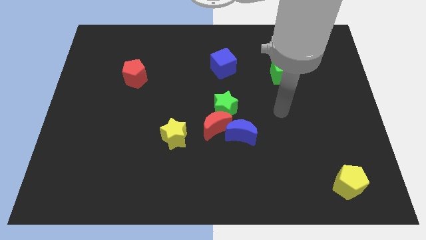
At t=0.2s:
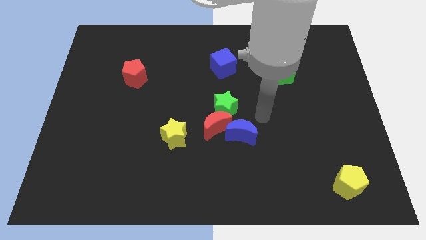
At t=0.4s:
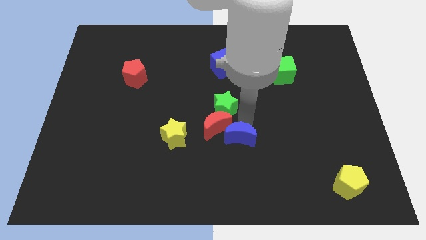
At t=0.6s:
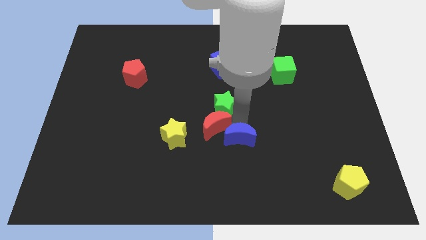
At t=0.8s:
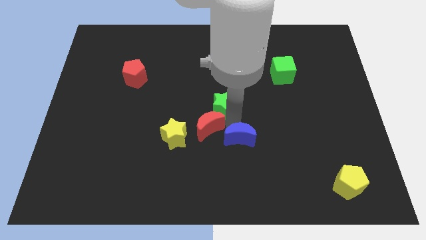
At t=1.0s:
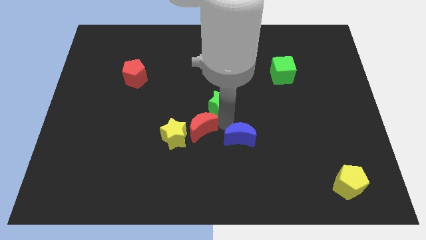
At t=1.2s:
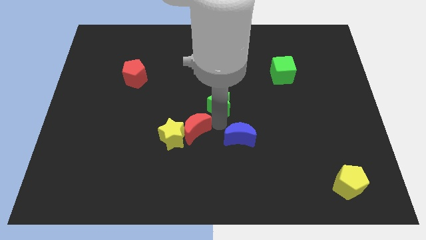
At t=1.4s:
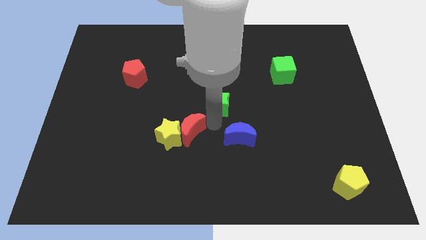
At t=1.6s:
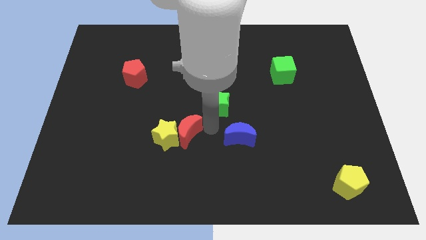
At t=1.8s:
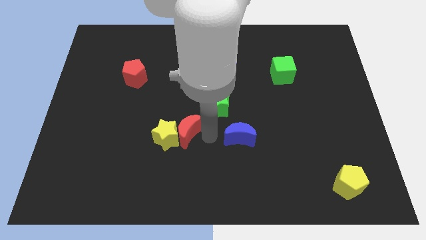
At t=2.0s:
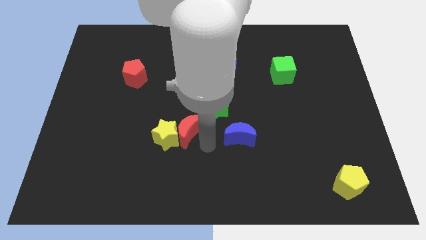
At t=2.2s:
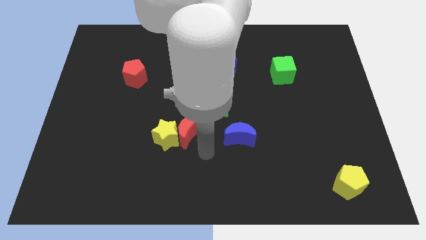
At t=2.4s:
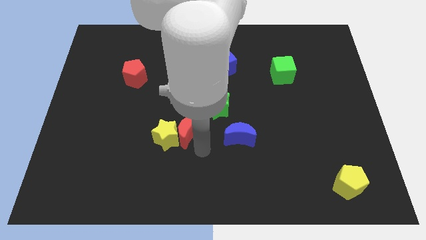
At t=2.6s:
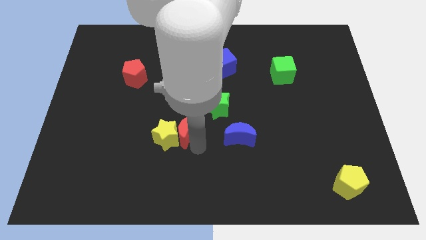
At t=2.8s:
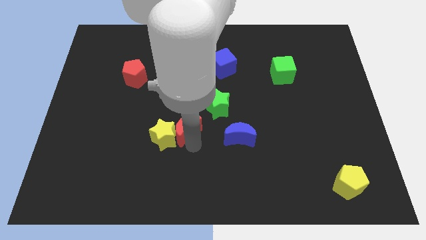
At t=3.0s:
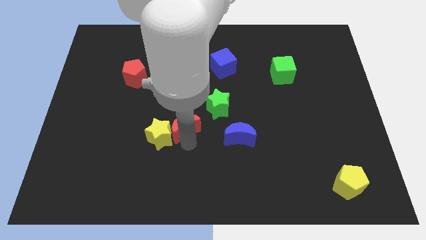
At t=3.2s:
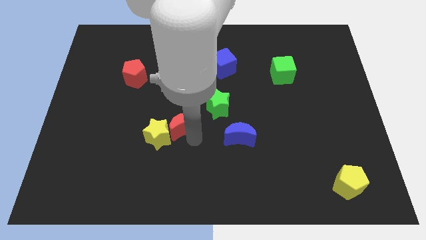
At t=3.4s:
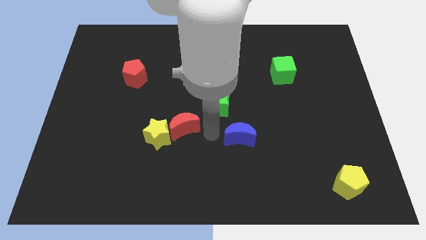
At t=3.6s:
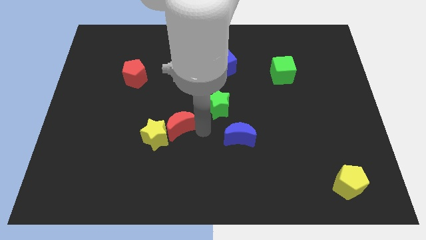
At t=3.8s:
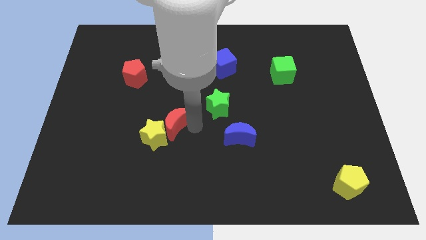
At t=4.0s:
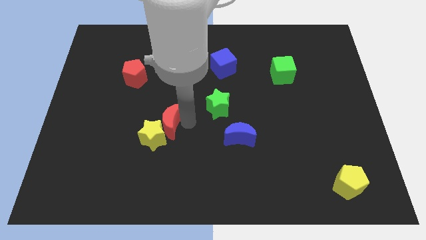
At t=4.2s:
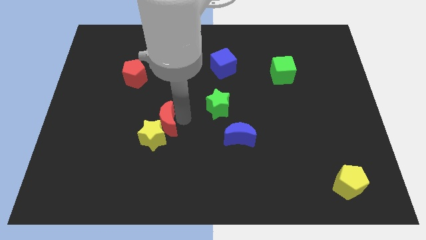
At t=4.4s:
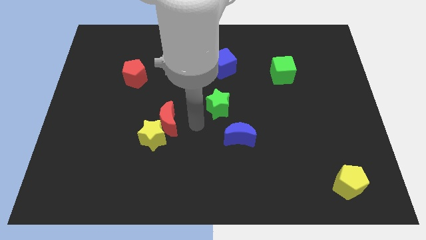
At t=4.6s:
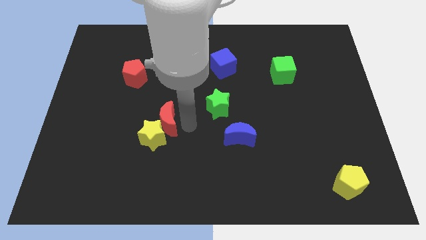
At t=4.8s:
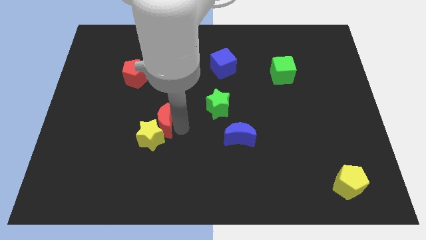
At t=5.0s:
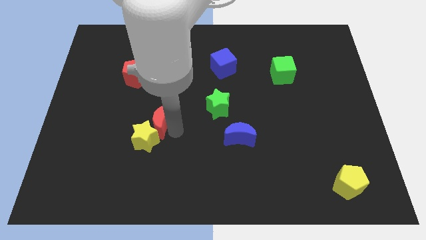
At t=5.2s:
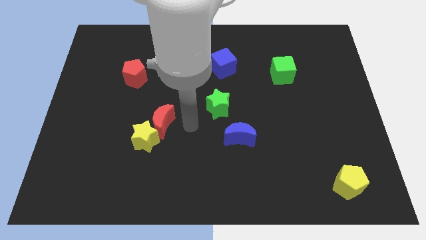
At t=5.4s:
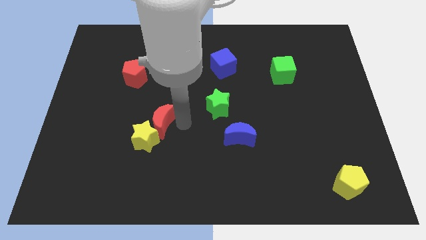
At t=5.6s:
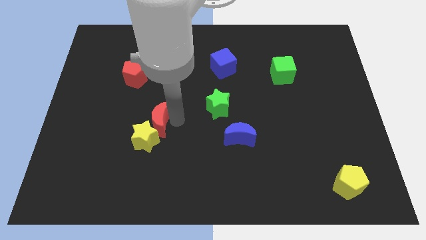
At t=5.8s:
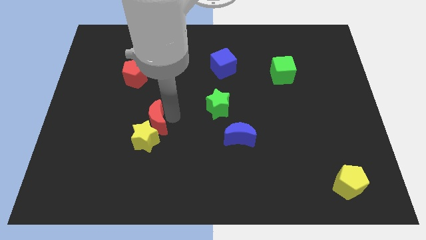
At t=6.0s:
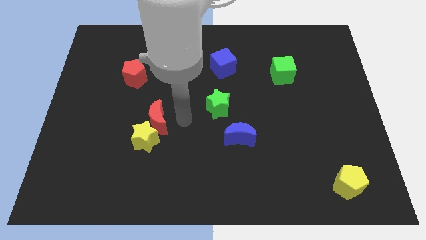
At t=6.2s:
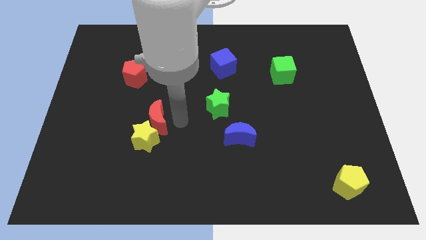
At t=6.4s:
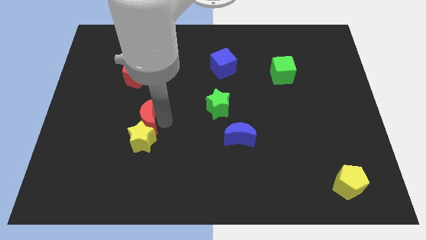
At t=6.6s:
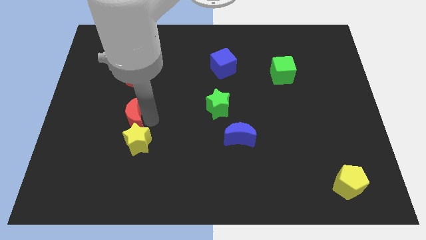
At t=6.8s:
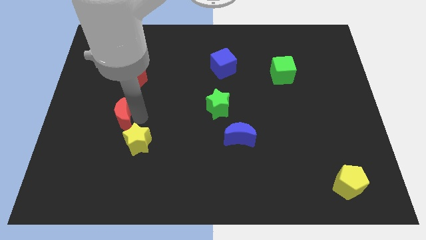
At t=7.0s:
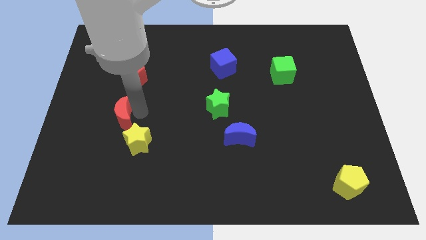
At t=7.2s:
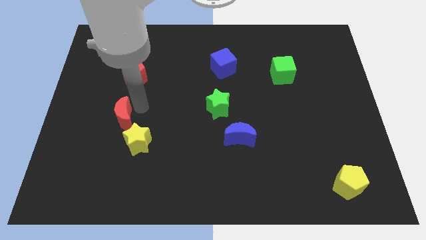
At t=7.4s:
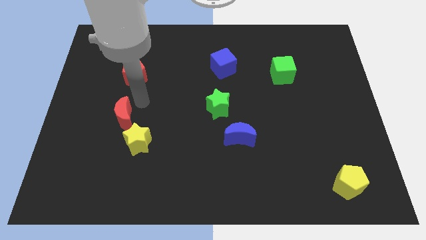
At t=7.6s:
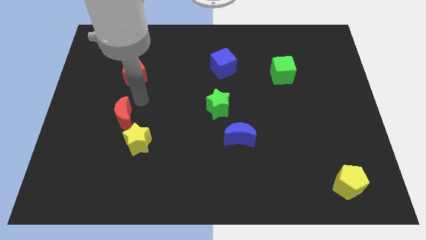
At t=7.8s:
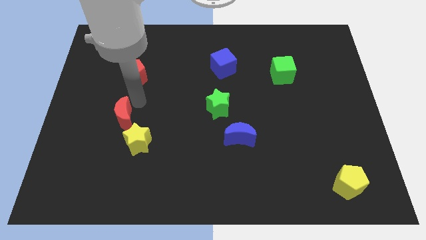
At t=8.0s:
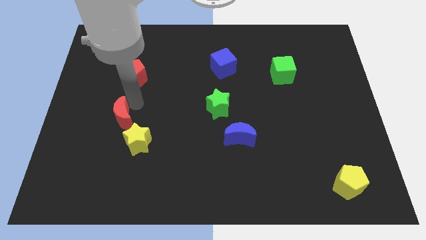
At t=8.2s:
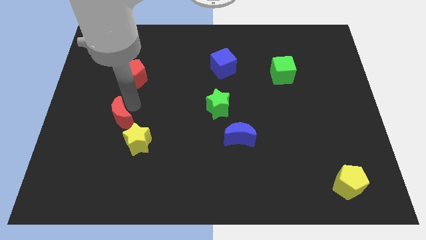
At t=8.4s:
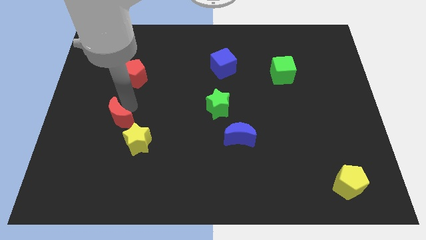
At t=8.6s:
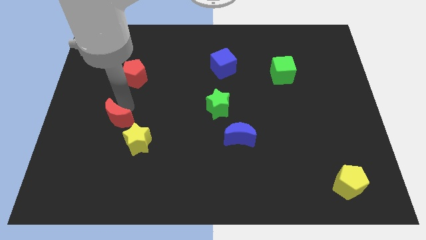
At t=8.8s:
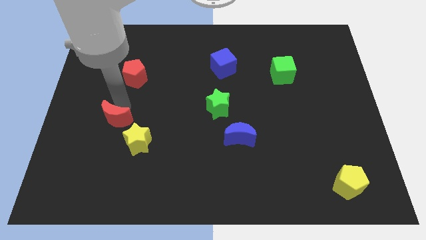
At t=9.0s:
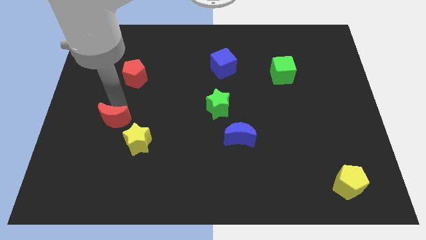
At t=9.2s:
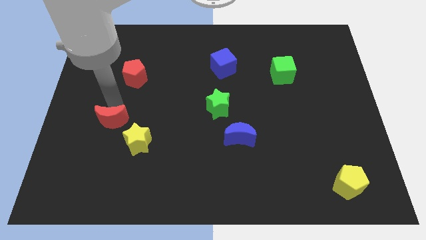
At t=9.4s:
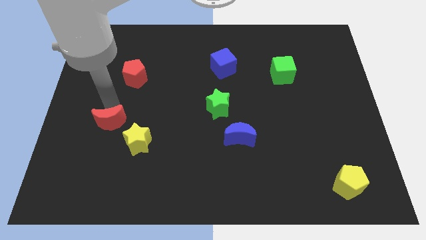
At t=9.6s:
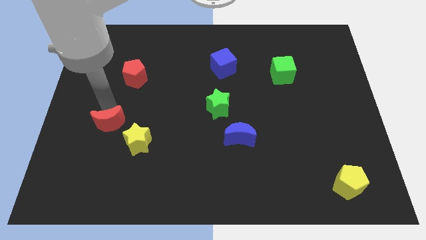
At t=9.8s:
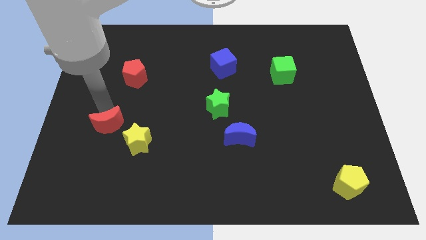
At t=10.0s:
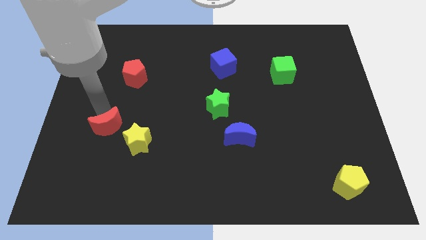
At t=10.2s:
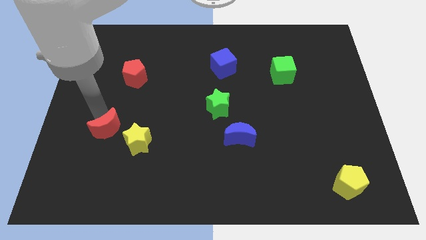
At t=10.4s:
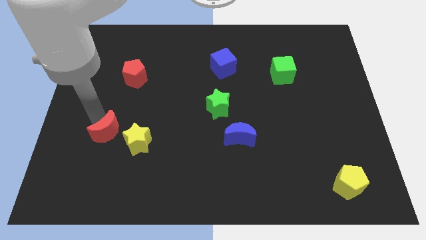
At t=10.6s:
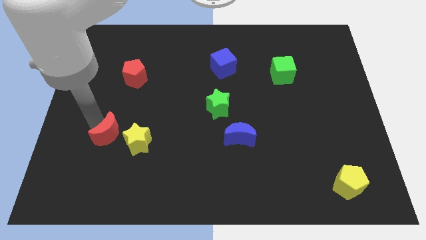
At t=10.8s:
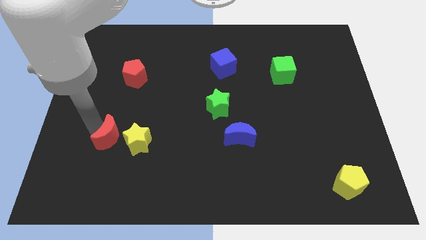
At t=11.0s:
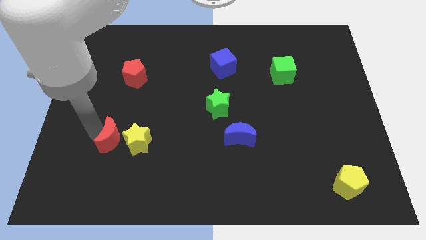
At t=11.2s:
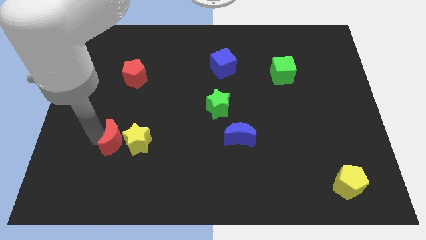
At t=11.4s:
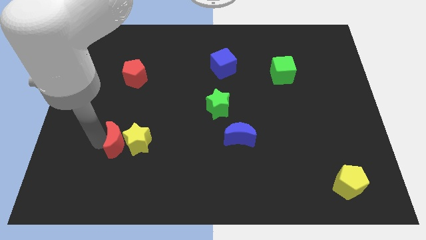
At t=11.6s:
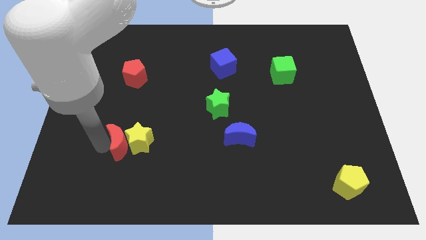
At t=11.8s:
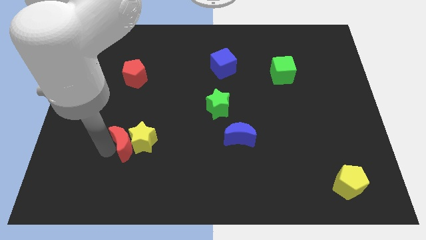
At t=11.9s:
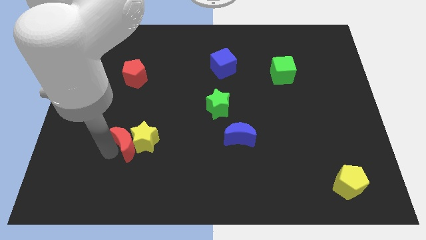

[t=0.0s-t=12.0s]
push the red moon diagonally up and to the left of the yellow star

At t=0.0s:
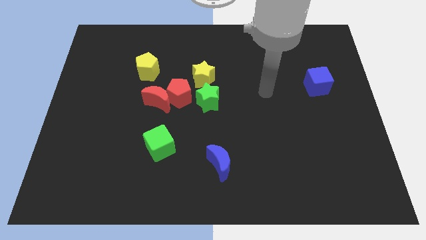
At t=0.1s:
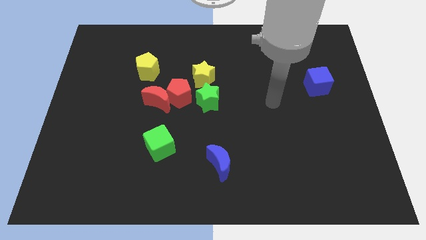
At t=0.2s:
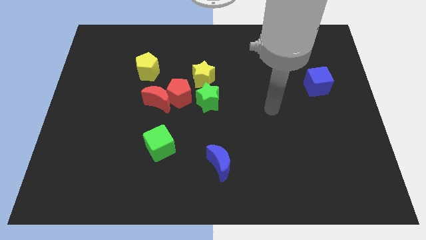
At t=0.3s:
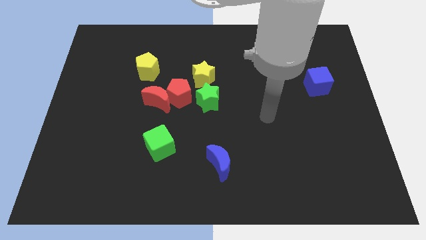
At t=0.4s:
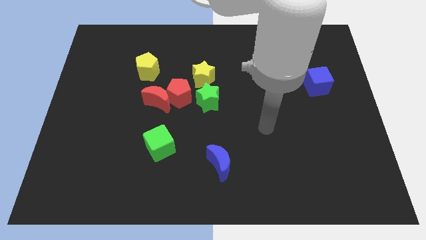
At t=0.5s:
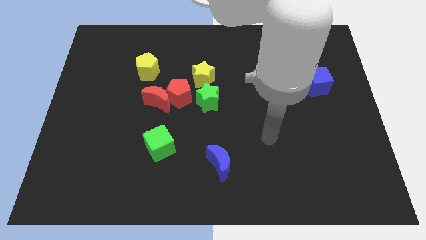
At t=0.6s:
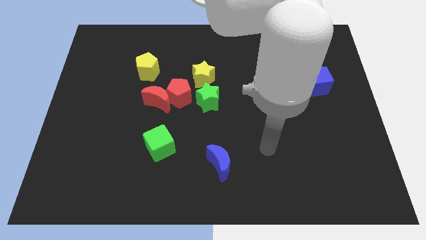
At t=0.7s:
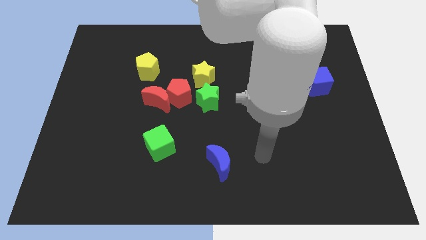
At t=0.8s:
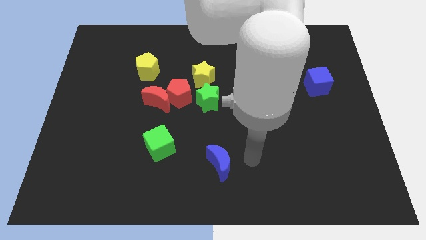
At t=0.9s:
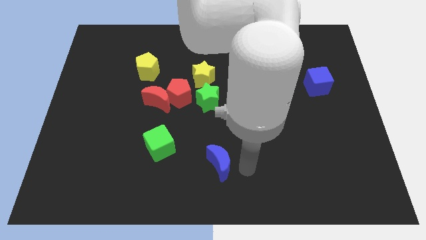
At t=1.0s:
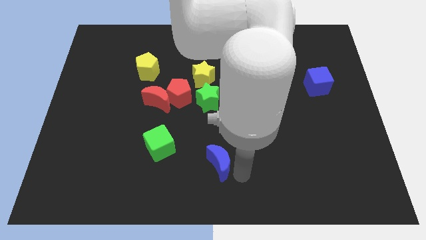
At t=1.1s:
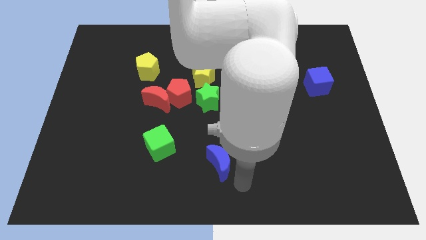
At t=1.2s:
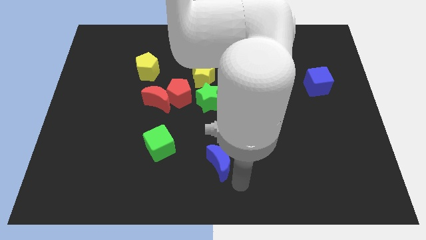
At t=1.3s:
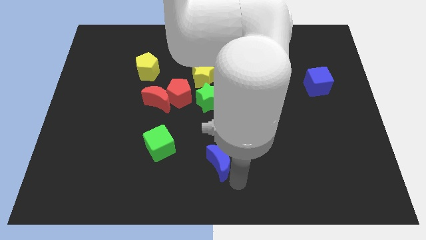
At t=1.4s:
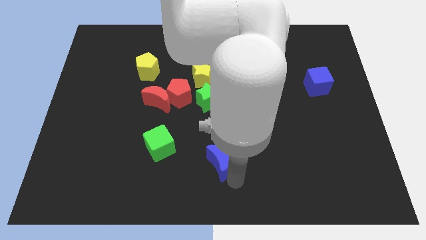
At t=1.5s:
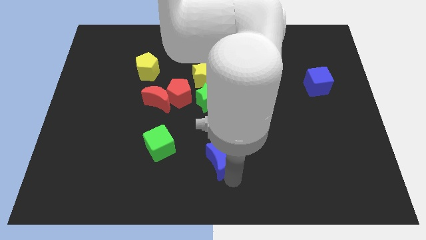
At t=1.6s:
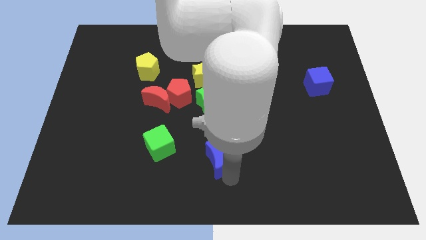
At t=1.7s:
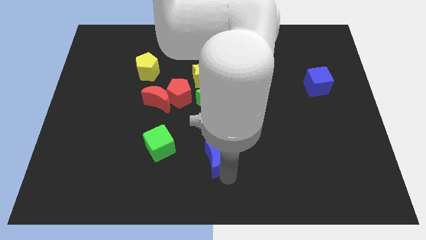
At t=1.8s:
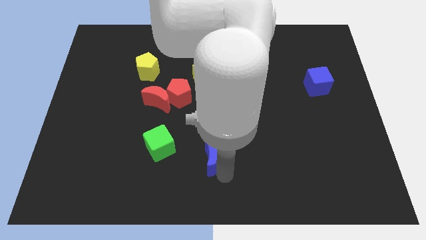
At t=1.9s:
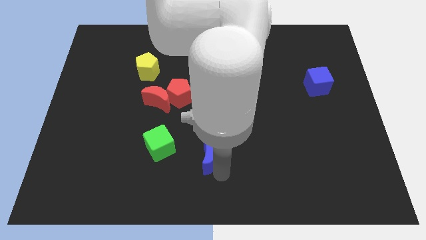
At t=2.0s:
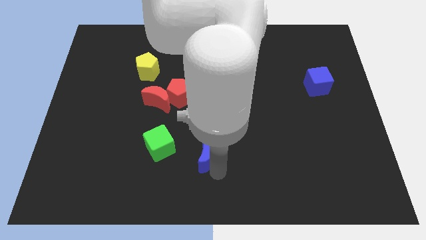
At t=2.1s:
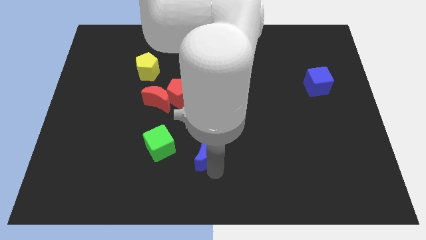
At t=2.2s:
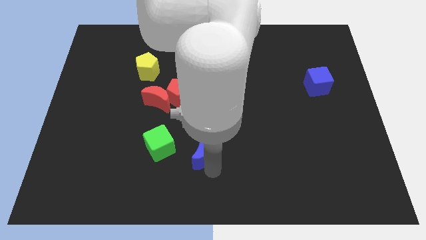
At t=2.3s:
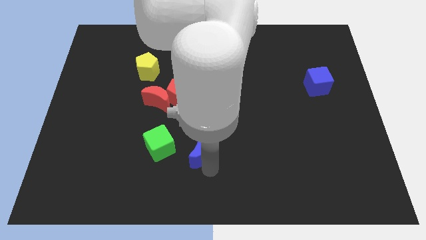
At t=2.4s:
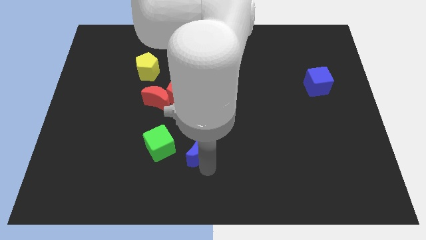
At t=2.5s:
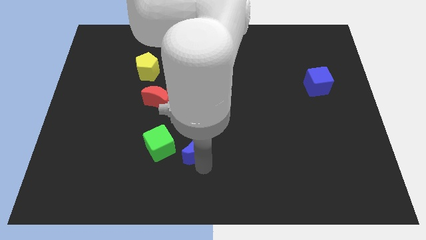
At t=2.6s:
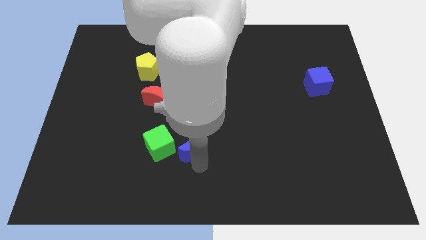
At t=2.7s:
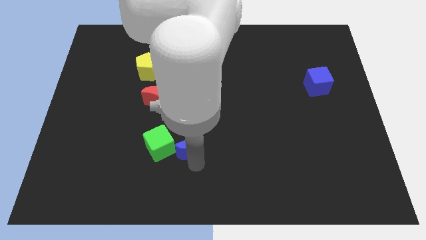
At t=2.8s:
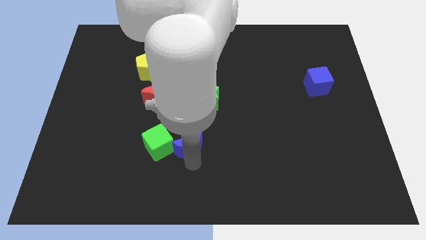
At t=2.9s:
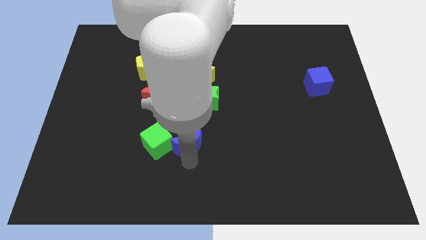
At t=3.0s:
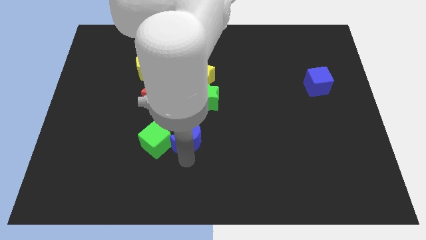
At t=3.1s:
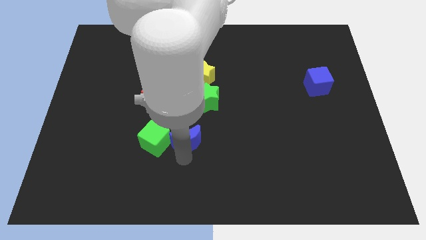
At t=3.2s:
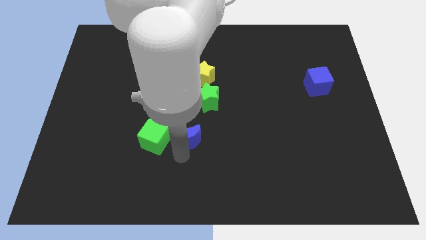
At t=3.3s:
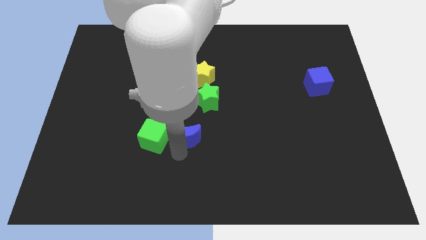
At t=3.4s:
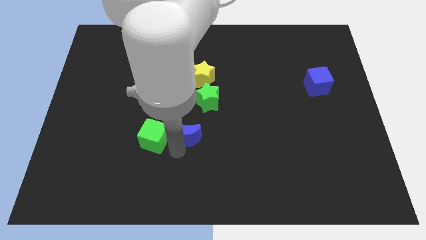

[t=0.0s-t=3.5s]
push the blue moon diagonally down and to the left of the green star
